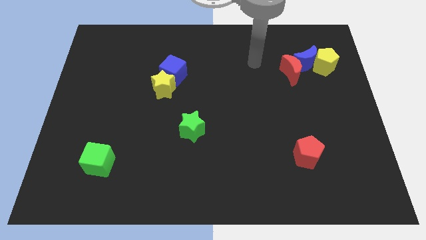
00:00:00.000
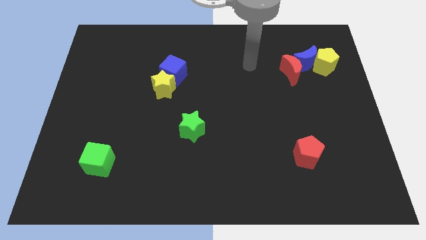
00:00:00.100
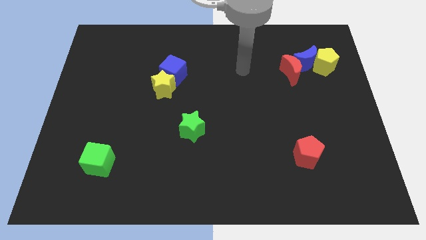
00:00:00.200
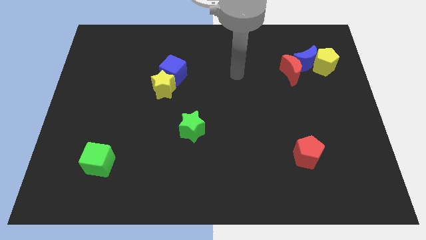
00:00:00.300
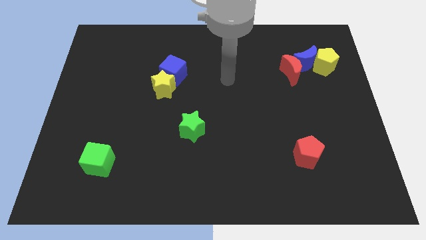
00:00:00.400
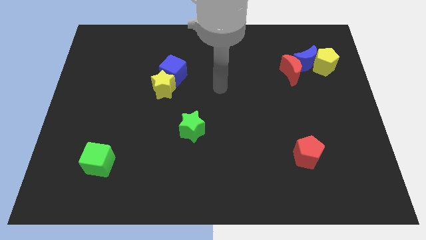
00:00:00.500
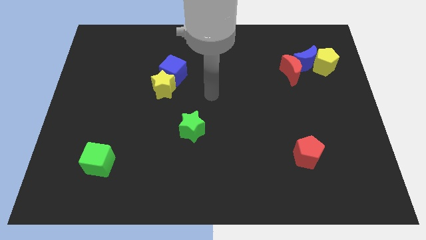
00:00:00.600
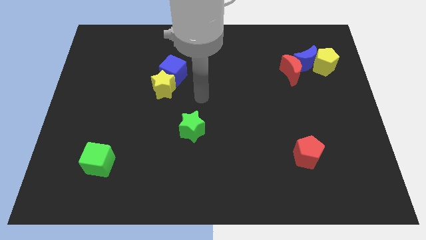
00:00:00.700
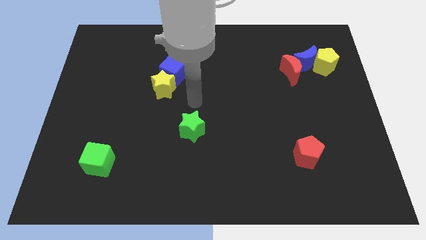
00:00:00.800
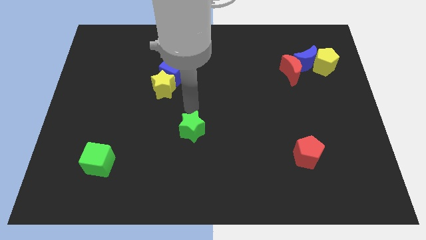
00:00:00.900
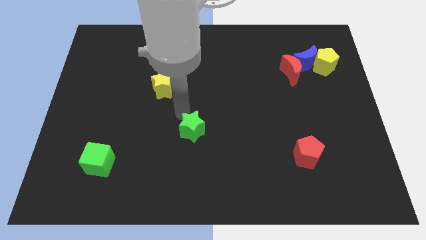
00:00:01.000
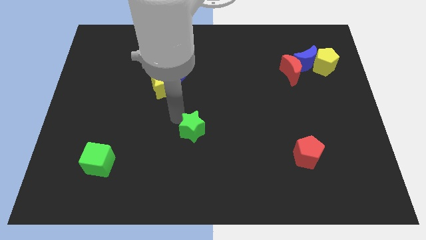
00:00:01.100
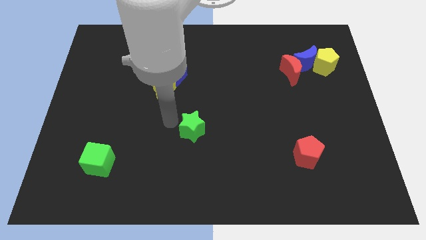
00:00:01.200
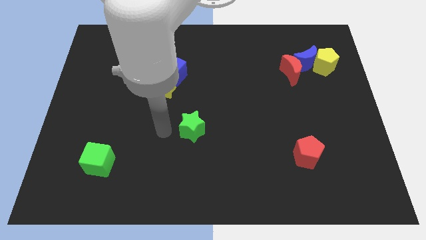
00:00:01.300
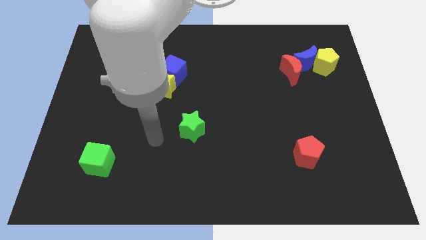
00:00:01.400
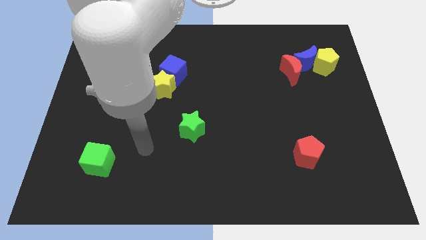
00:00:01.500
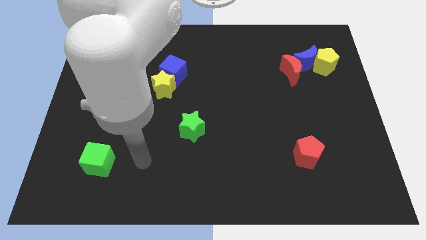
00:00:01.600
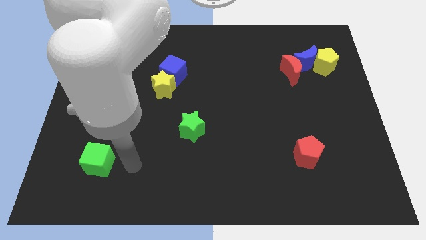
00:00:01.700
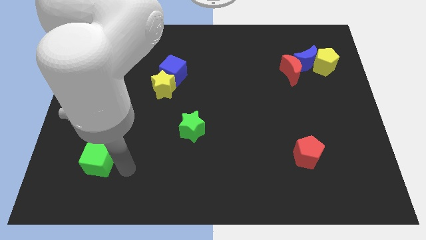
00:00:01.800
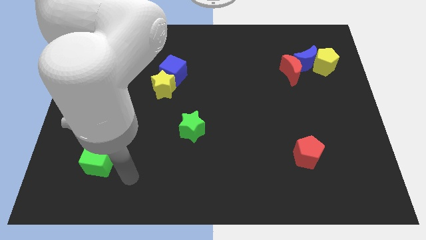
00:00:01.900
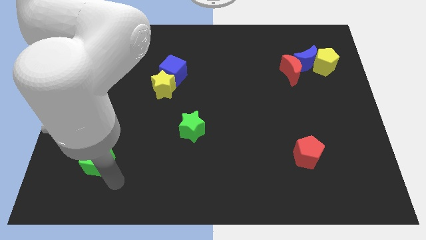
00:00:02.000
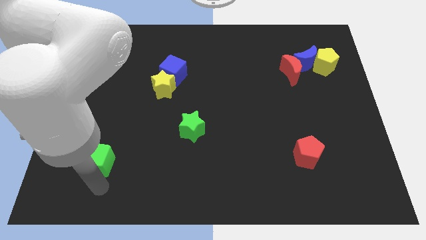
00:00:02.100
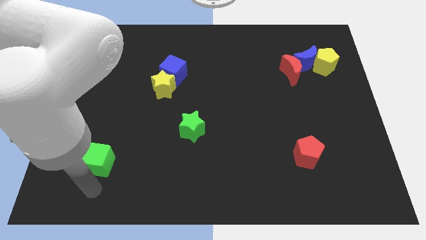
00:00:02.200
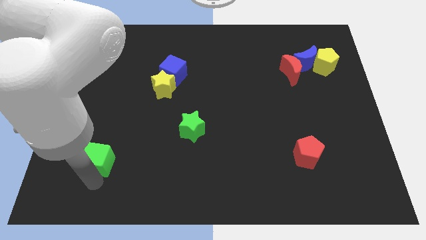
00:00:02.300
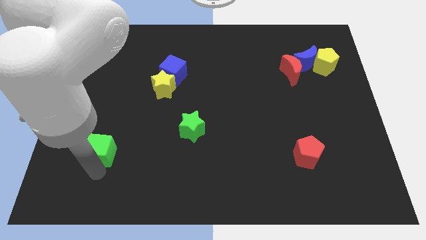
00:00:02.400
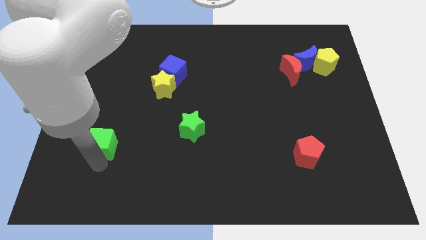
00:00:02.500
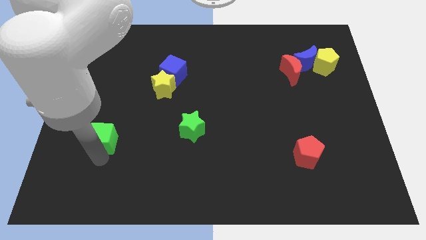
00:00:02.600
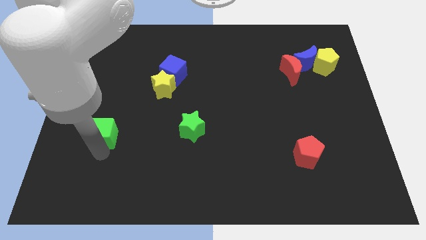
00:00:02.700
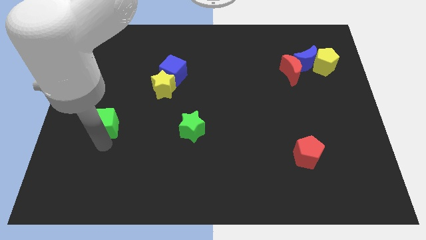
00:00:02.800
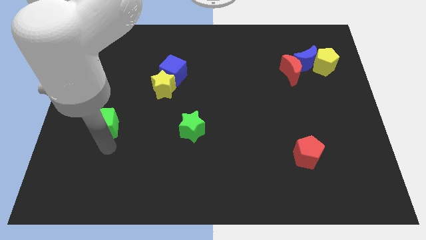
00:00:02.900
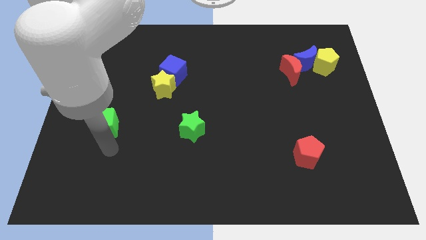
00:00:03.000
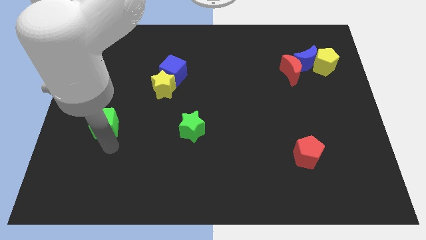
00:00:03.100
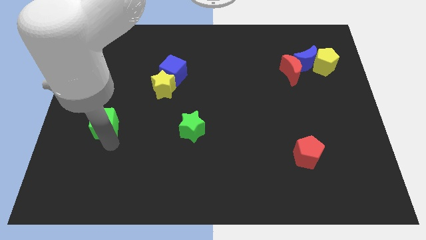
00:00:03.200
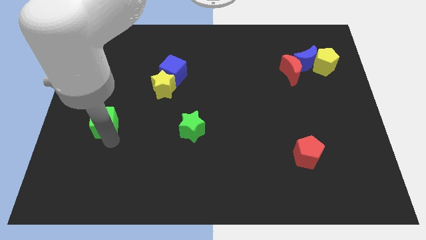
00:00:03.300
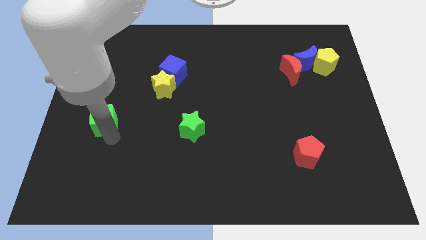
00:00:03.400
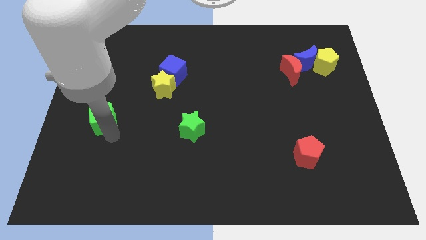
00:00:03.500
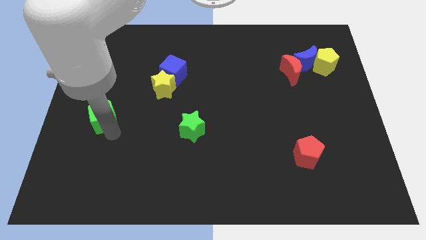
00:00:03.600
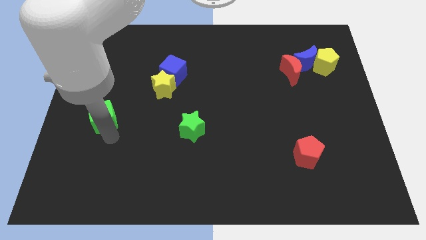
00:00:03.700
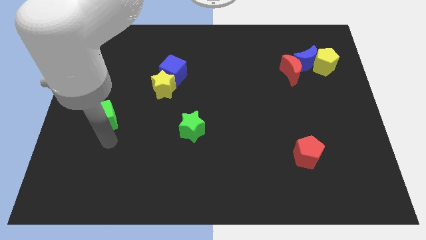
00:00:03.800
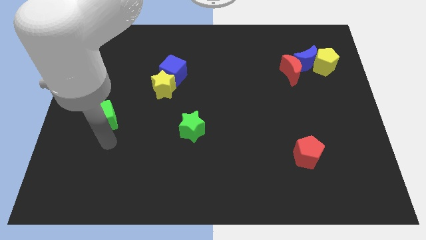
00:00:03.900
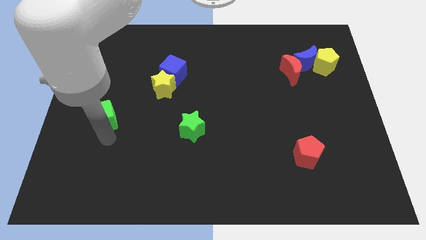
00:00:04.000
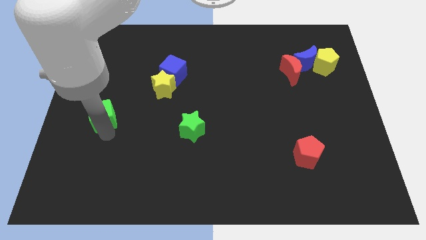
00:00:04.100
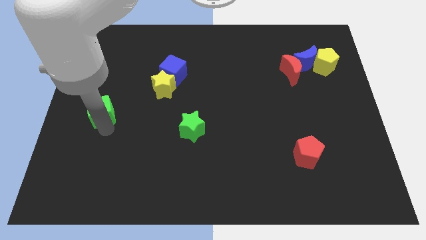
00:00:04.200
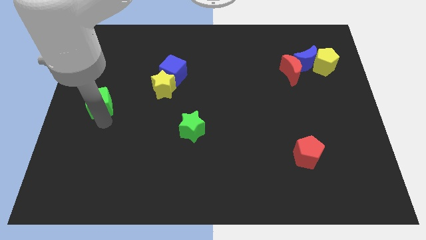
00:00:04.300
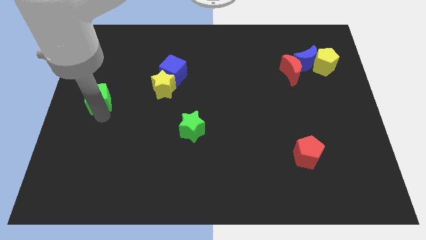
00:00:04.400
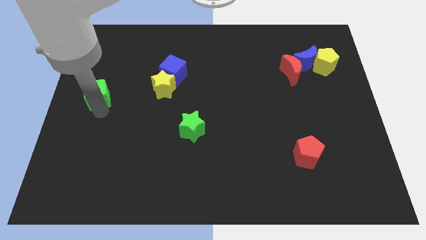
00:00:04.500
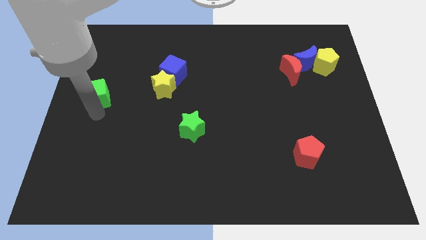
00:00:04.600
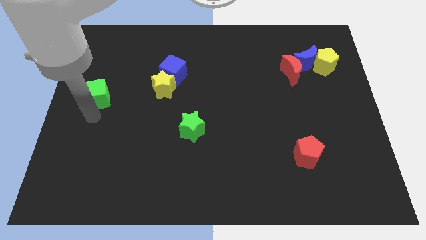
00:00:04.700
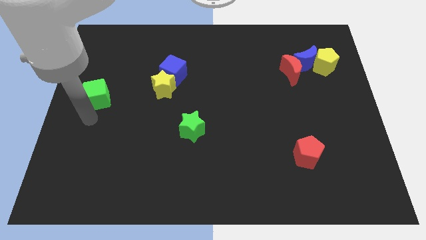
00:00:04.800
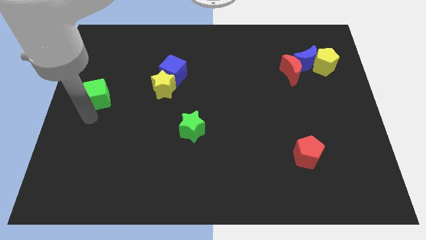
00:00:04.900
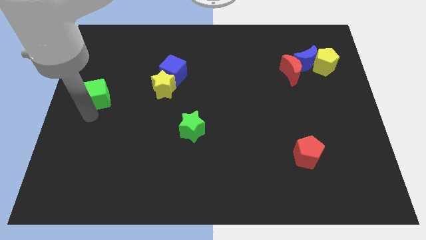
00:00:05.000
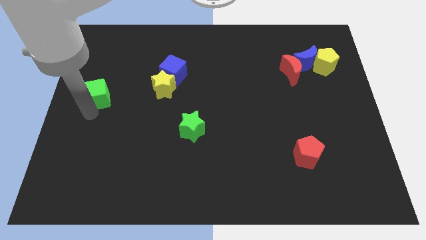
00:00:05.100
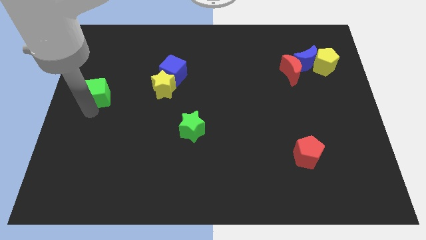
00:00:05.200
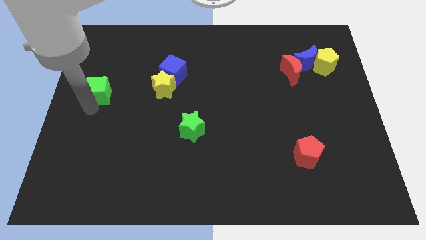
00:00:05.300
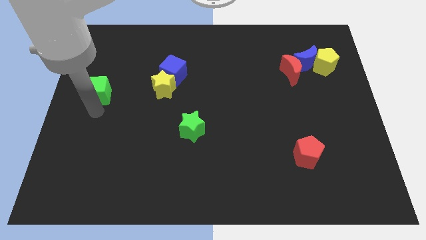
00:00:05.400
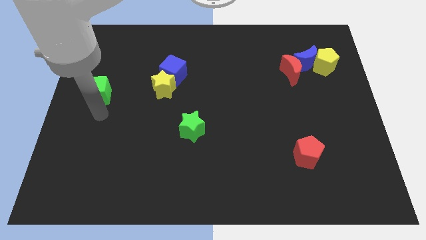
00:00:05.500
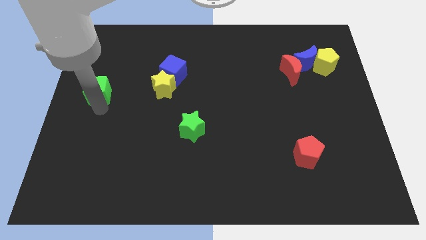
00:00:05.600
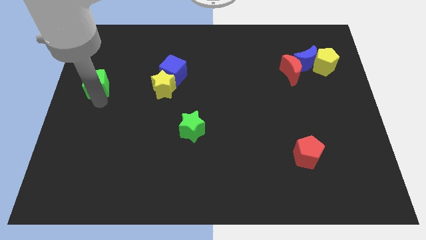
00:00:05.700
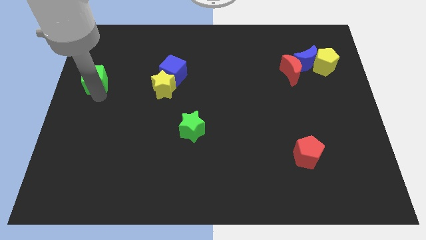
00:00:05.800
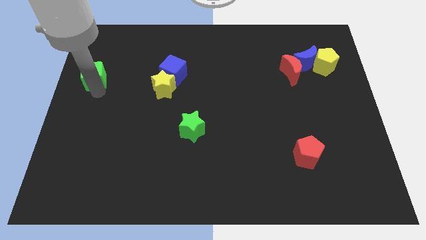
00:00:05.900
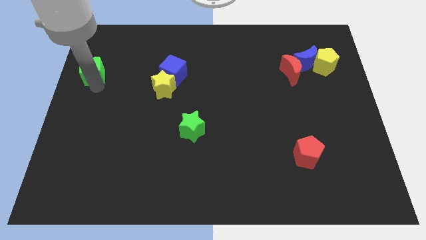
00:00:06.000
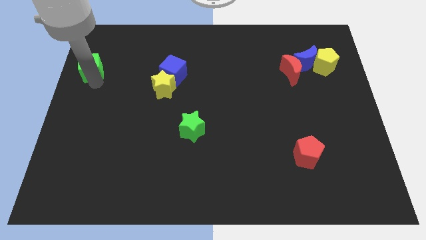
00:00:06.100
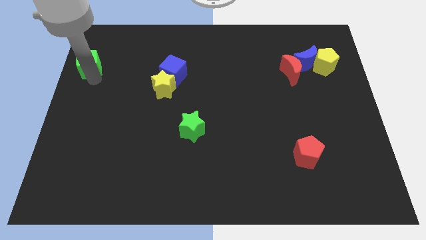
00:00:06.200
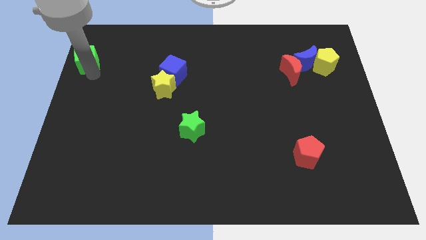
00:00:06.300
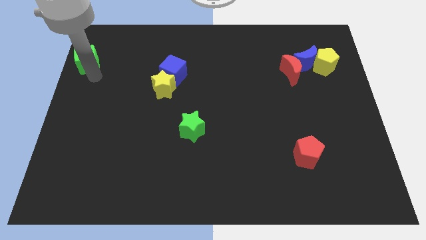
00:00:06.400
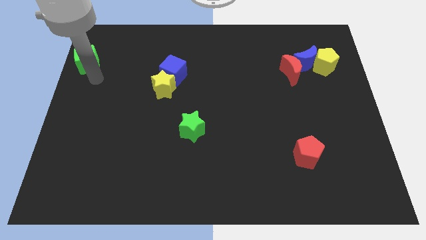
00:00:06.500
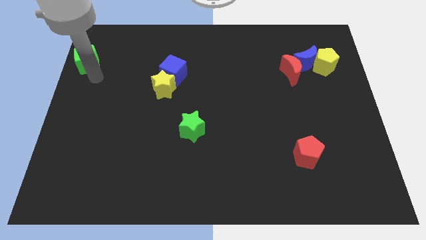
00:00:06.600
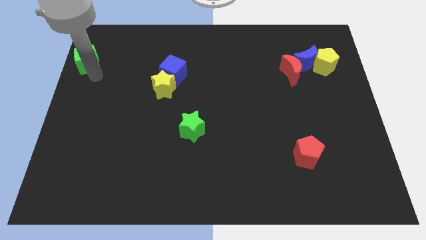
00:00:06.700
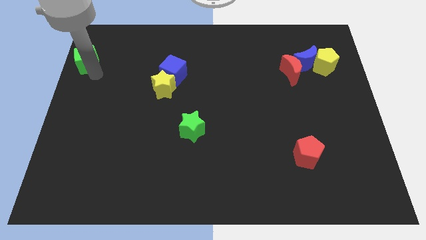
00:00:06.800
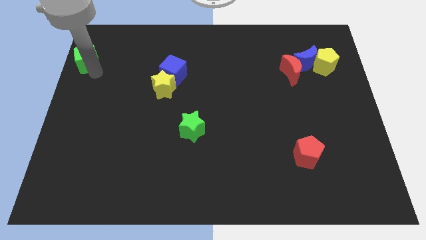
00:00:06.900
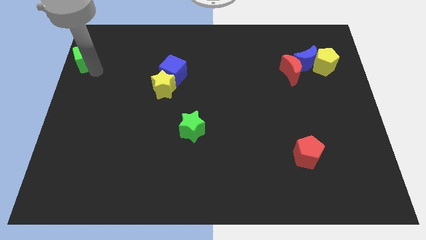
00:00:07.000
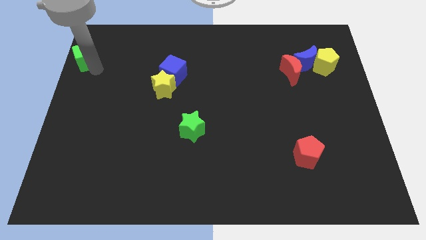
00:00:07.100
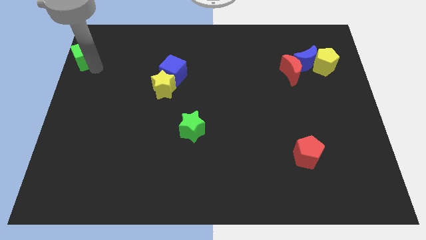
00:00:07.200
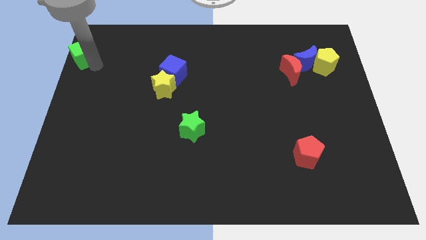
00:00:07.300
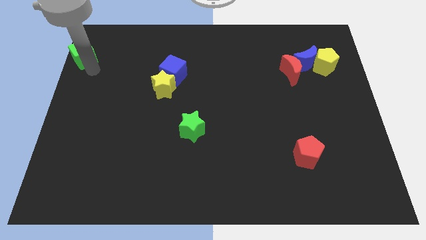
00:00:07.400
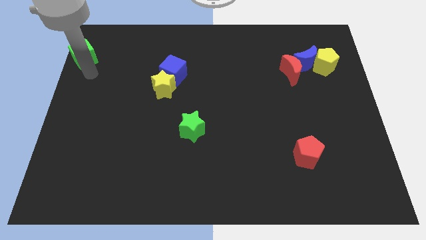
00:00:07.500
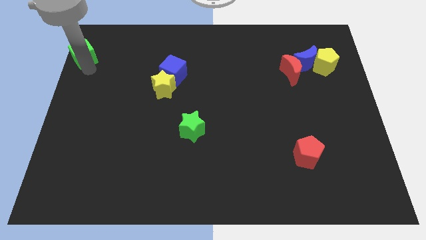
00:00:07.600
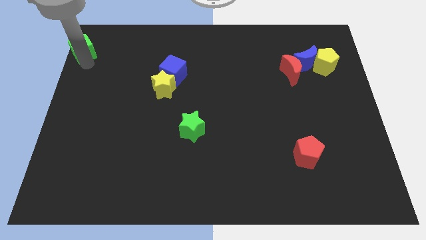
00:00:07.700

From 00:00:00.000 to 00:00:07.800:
put the green cube to the upper left corner
